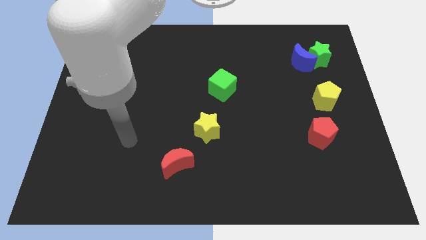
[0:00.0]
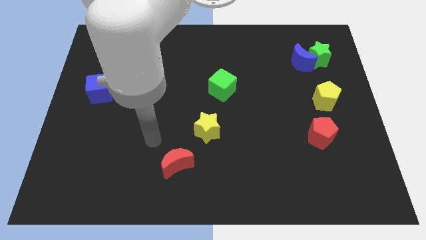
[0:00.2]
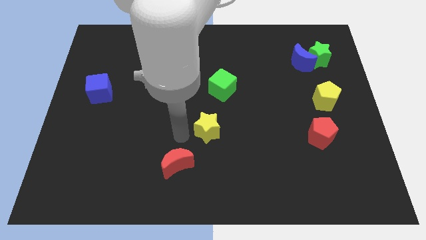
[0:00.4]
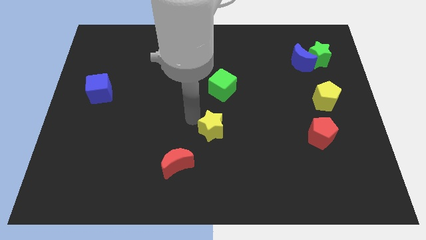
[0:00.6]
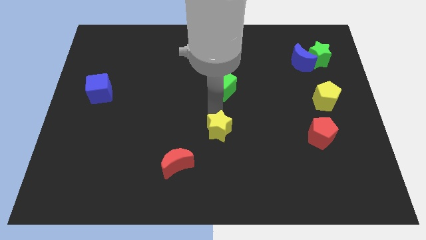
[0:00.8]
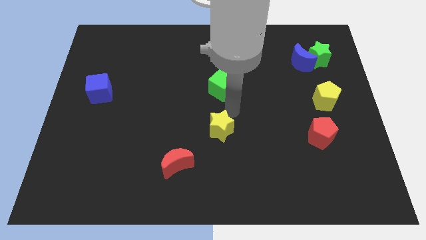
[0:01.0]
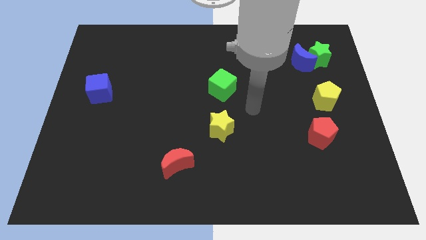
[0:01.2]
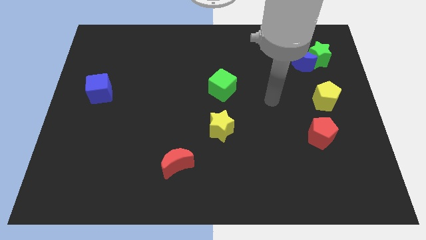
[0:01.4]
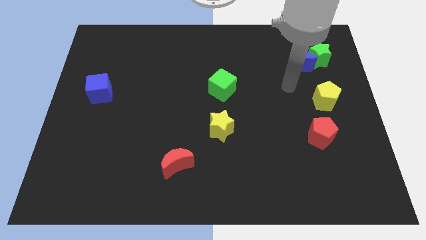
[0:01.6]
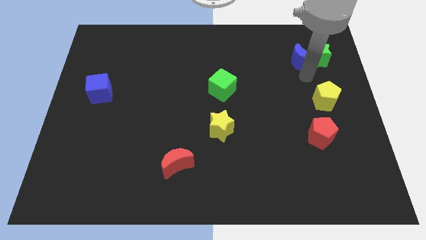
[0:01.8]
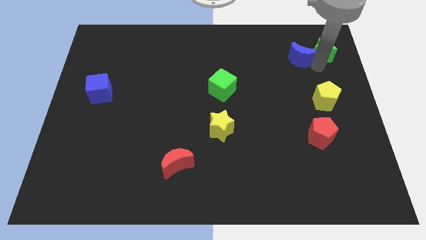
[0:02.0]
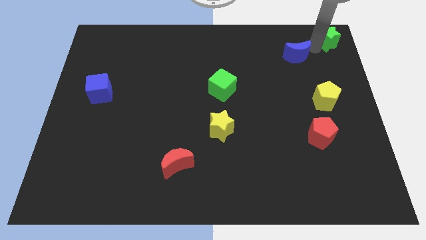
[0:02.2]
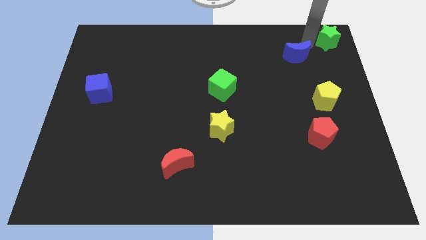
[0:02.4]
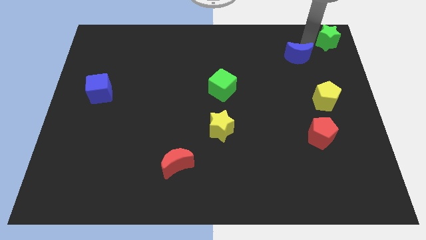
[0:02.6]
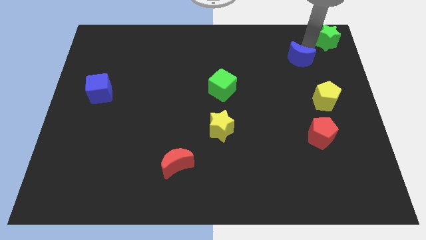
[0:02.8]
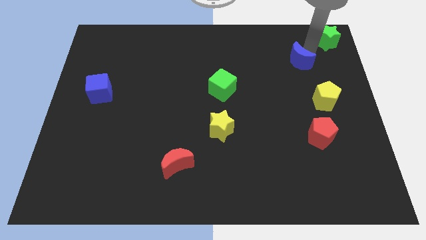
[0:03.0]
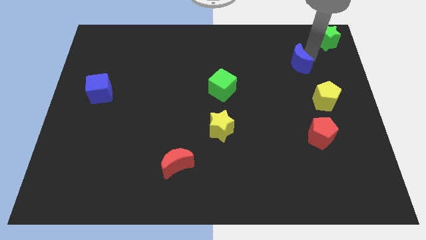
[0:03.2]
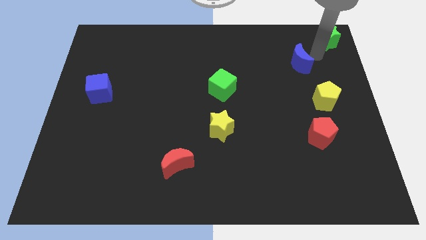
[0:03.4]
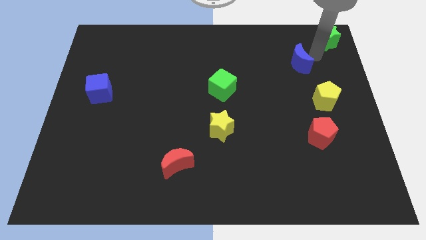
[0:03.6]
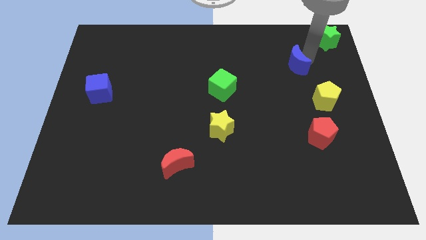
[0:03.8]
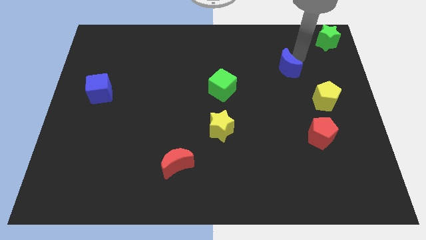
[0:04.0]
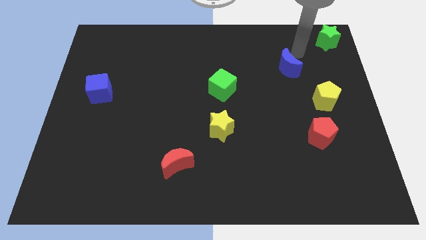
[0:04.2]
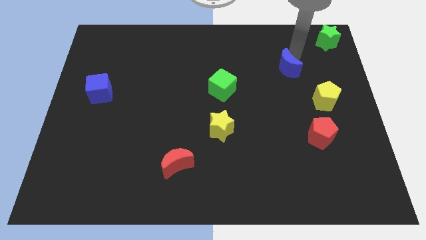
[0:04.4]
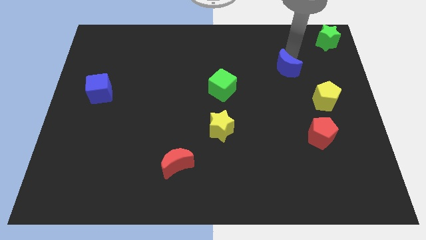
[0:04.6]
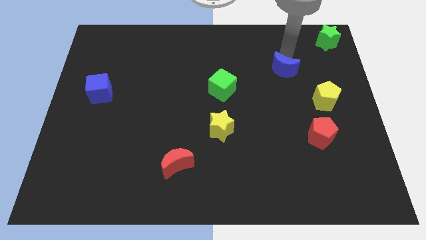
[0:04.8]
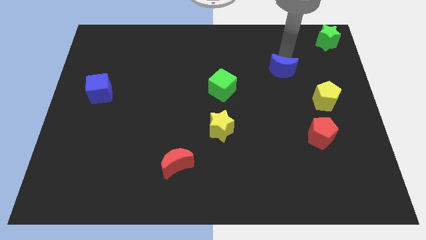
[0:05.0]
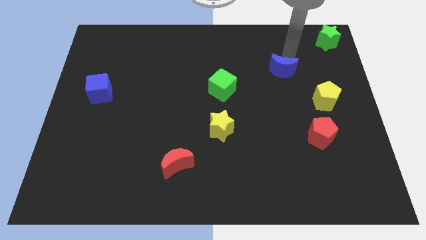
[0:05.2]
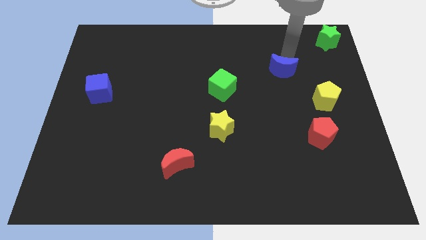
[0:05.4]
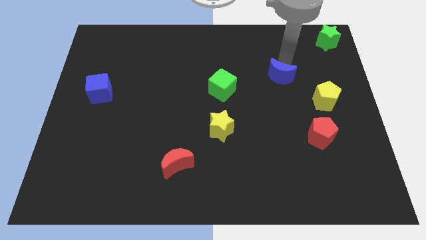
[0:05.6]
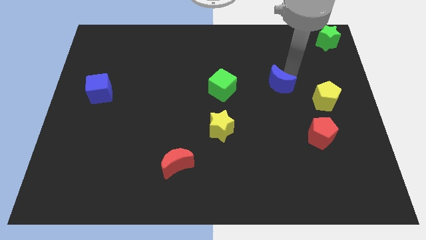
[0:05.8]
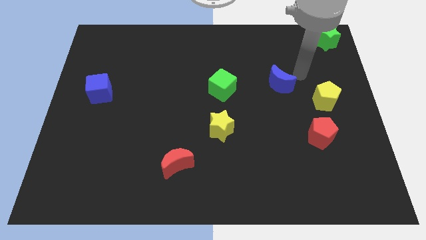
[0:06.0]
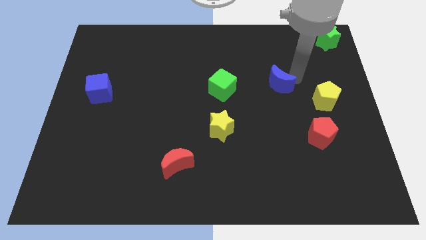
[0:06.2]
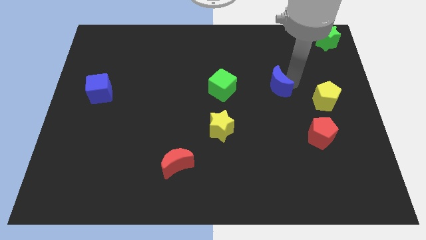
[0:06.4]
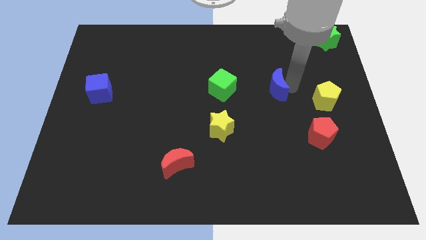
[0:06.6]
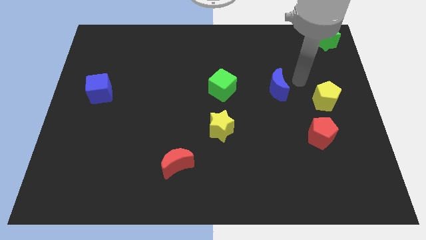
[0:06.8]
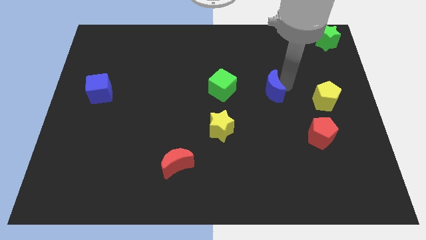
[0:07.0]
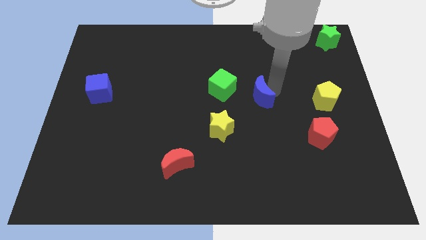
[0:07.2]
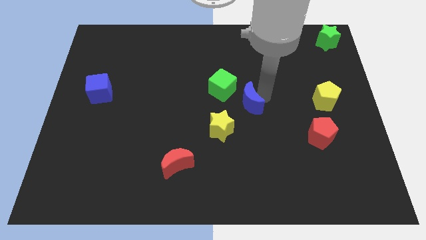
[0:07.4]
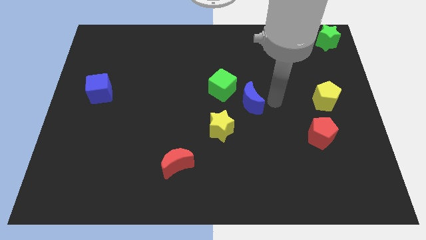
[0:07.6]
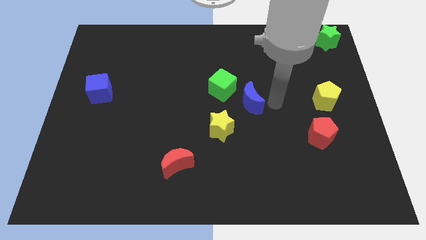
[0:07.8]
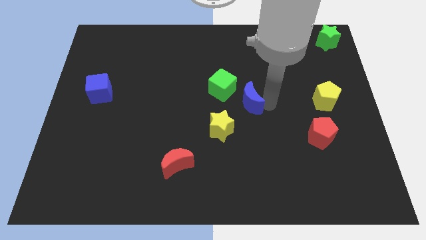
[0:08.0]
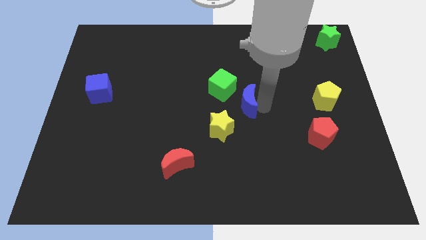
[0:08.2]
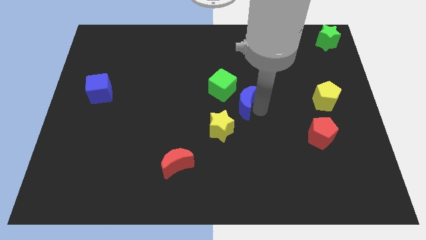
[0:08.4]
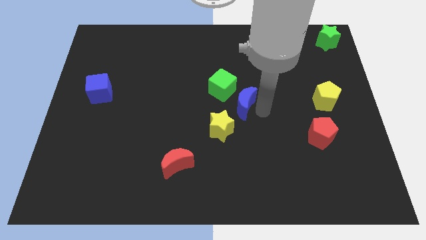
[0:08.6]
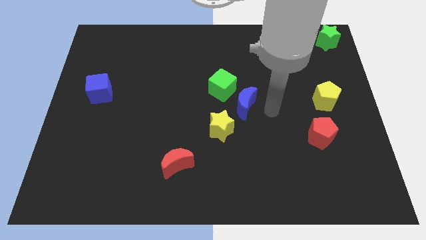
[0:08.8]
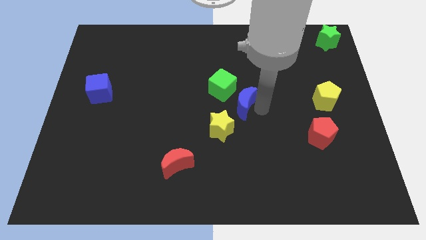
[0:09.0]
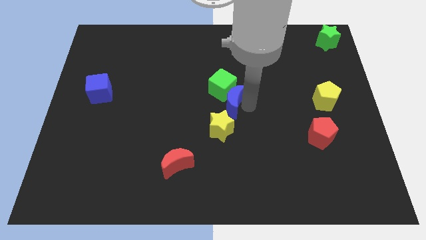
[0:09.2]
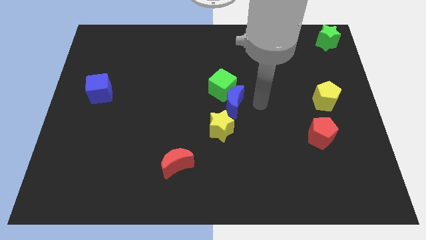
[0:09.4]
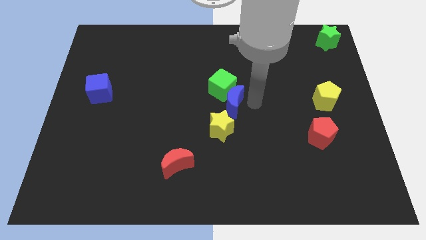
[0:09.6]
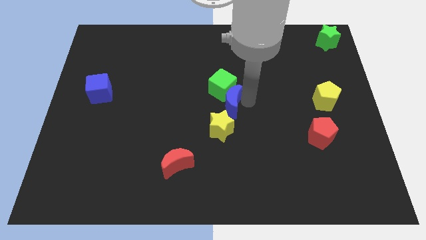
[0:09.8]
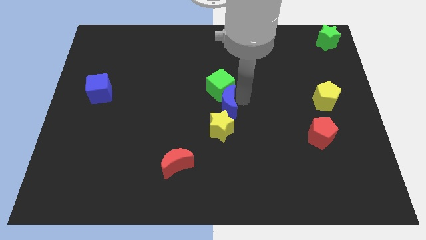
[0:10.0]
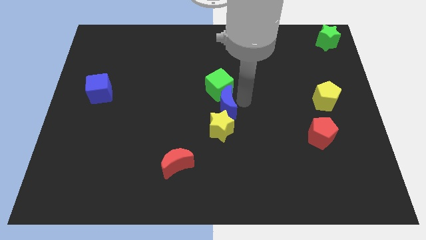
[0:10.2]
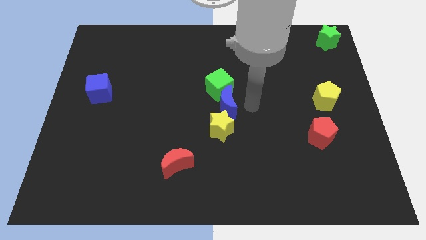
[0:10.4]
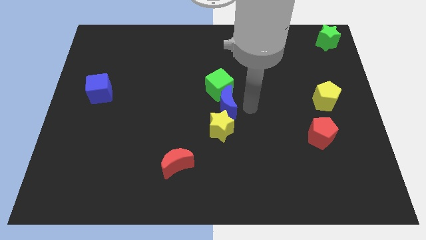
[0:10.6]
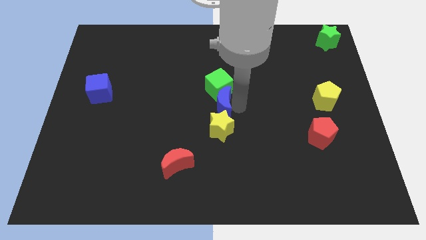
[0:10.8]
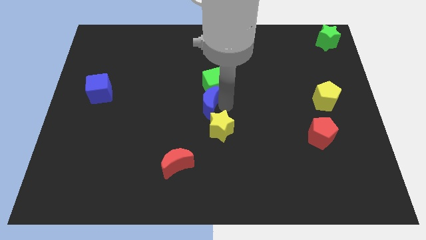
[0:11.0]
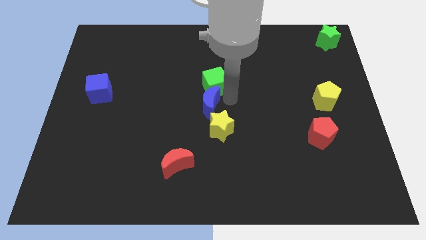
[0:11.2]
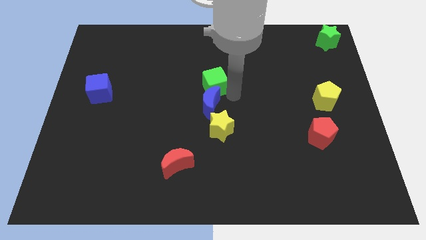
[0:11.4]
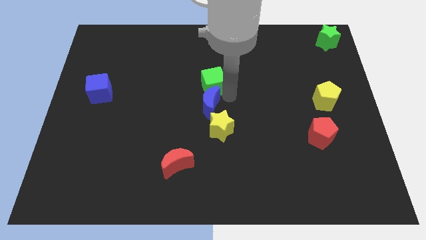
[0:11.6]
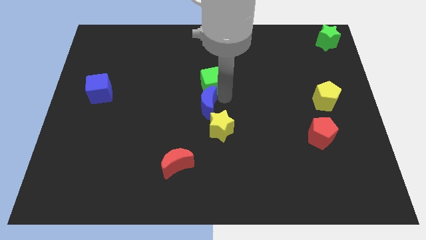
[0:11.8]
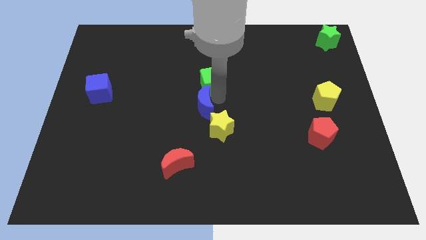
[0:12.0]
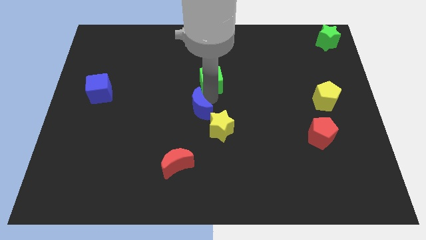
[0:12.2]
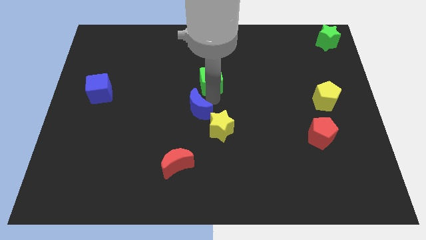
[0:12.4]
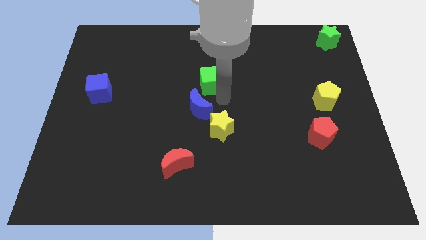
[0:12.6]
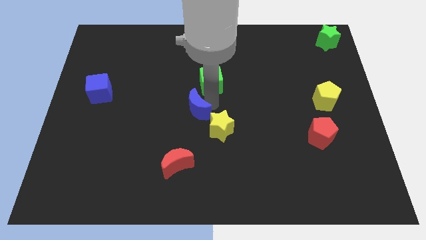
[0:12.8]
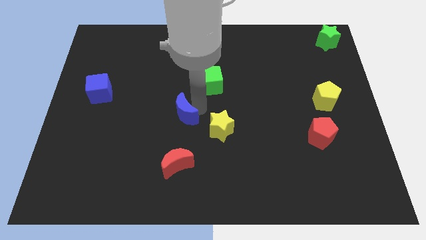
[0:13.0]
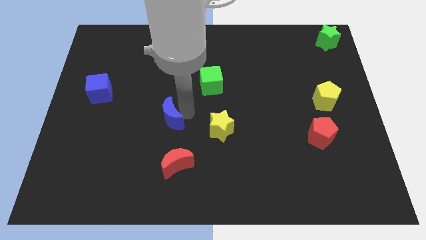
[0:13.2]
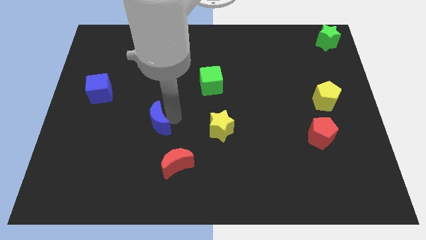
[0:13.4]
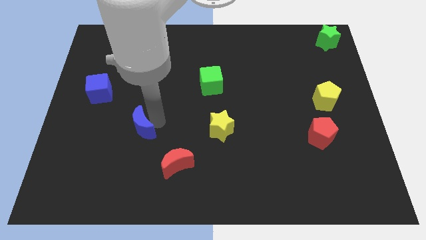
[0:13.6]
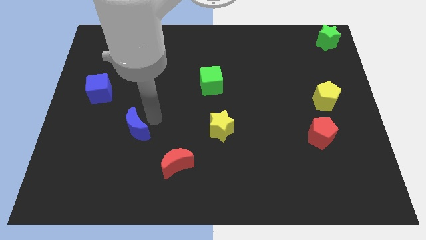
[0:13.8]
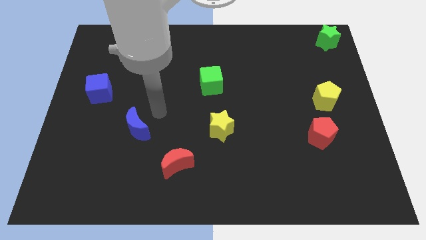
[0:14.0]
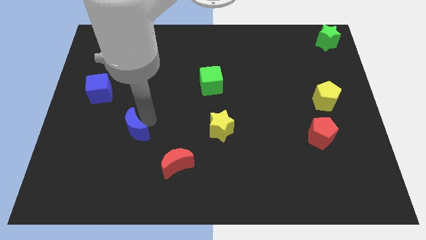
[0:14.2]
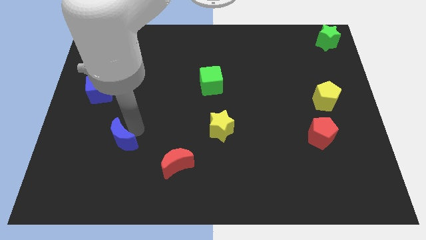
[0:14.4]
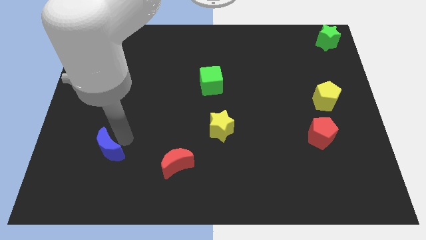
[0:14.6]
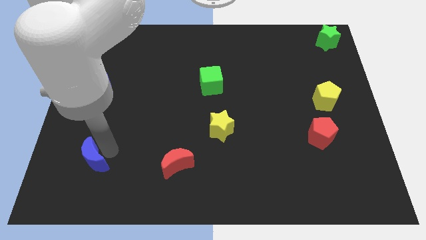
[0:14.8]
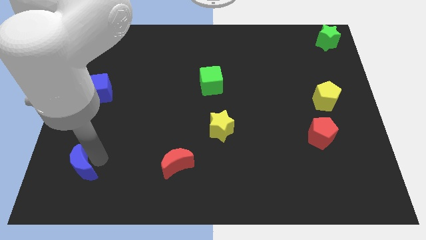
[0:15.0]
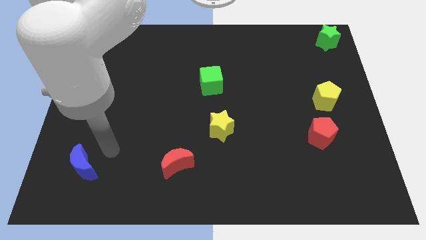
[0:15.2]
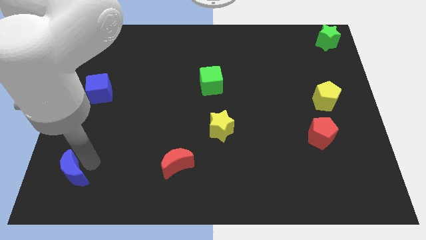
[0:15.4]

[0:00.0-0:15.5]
push the blue moon to the bottom left corner
